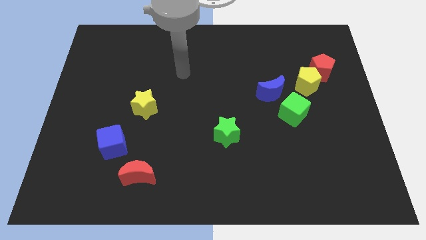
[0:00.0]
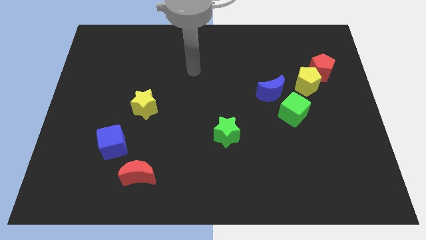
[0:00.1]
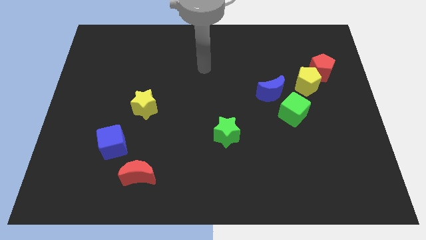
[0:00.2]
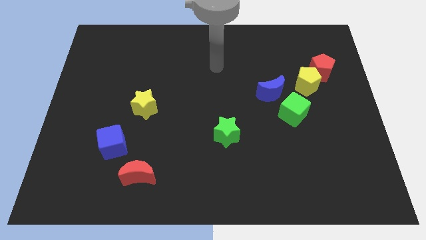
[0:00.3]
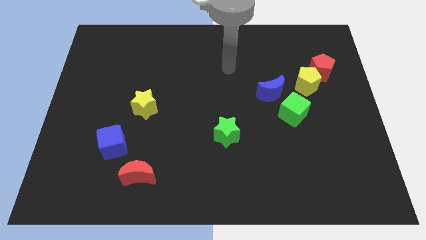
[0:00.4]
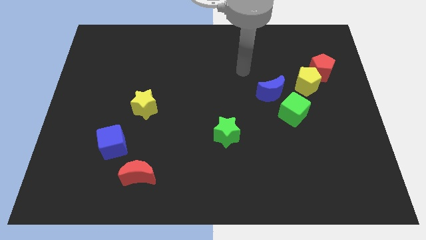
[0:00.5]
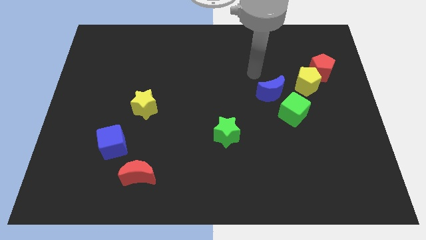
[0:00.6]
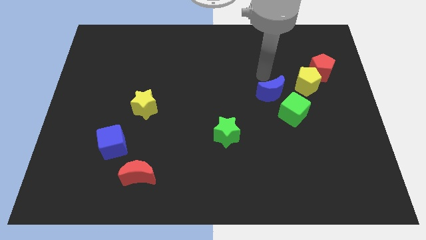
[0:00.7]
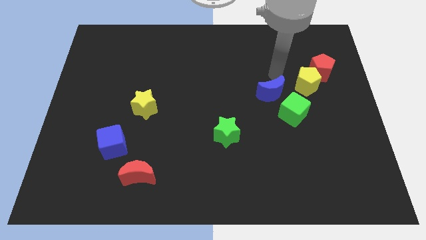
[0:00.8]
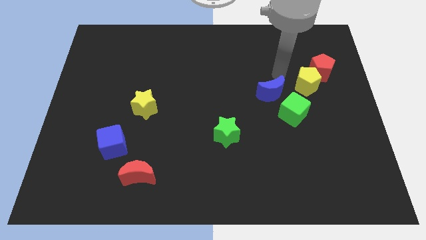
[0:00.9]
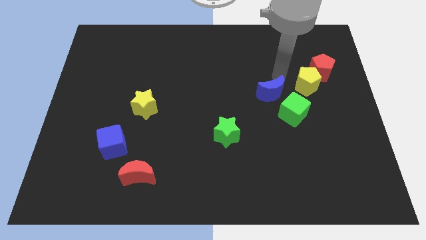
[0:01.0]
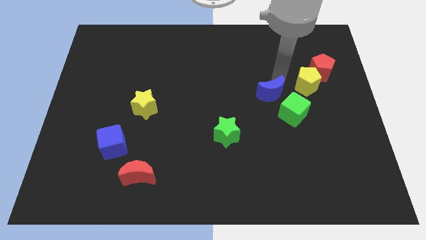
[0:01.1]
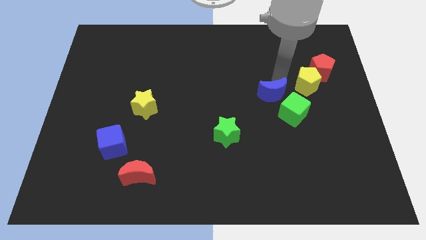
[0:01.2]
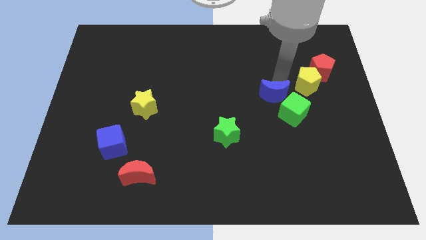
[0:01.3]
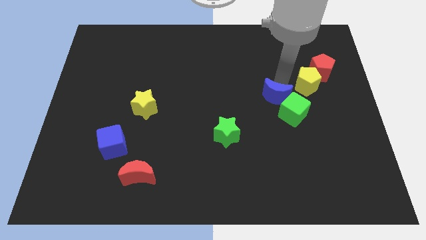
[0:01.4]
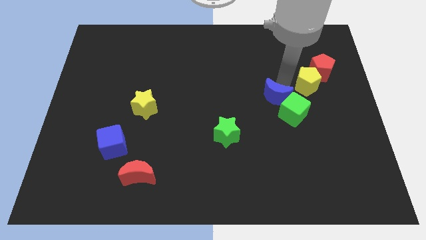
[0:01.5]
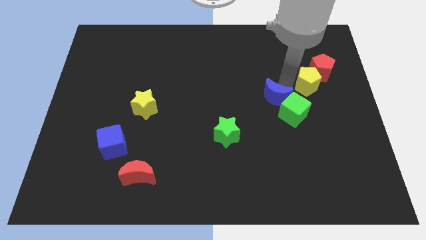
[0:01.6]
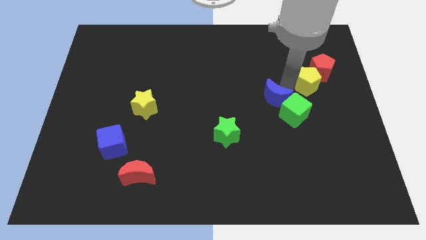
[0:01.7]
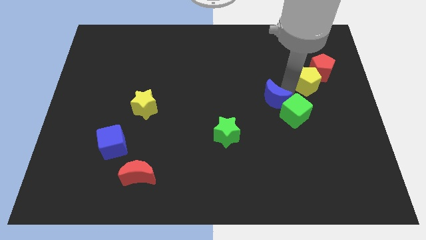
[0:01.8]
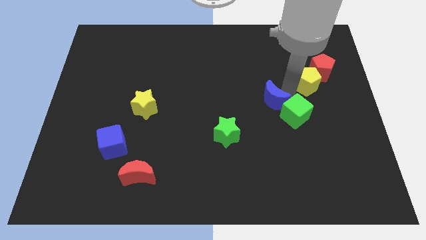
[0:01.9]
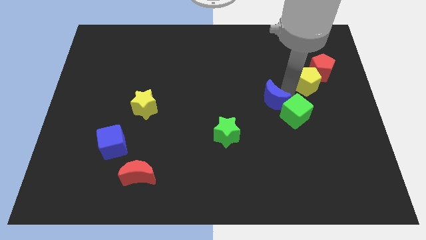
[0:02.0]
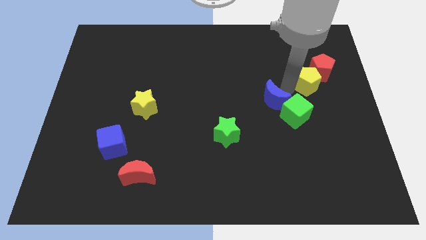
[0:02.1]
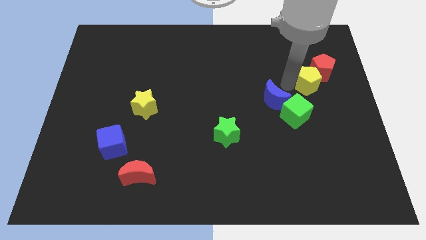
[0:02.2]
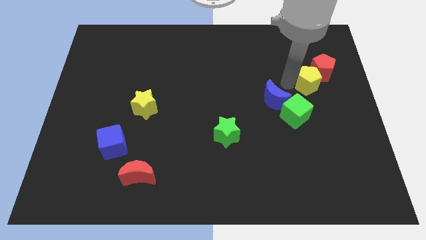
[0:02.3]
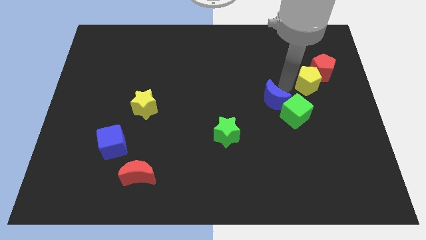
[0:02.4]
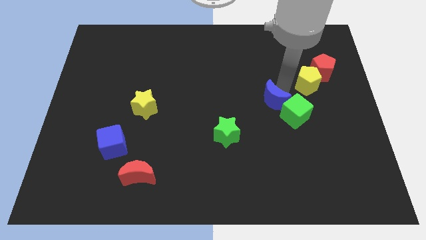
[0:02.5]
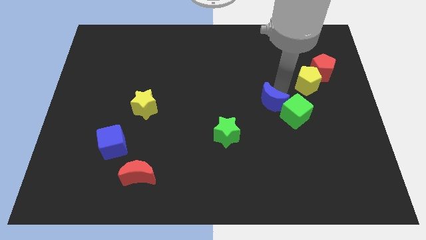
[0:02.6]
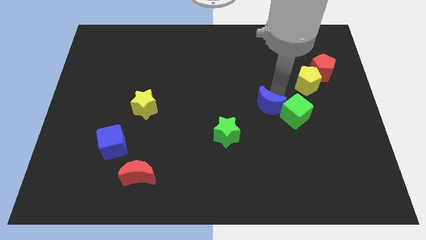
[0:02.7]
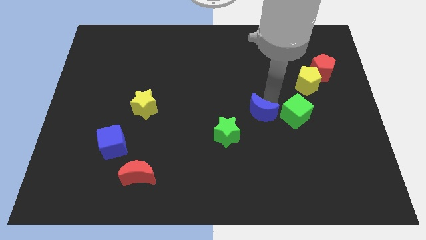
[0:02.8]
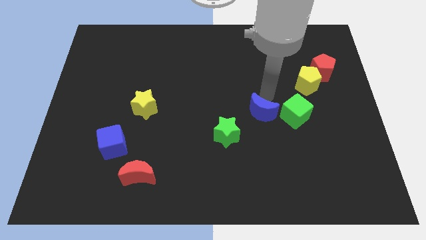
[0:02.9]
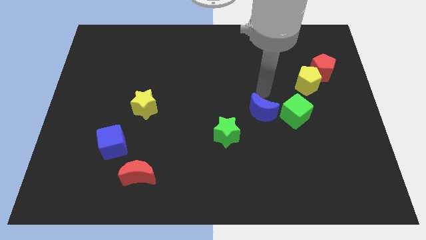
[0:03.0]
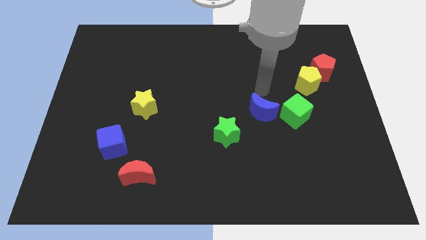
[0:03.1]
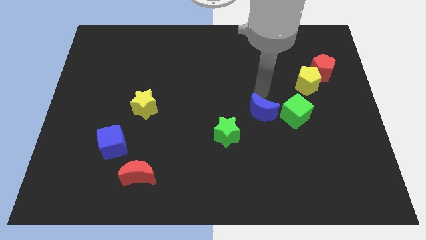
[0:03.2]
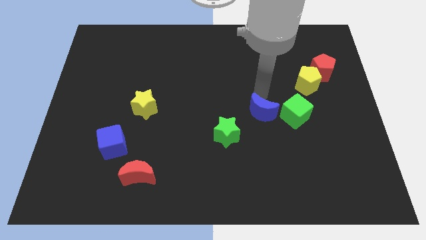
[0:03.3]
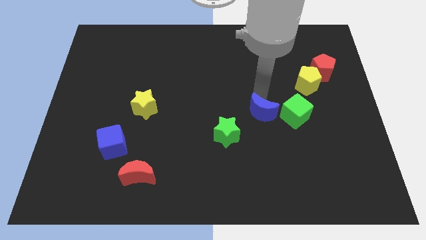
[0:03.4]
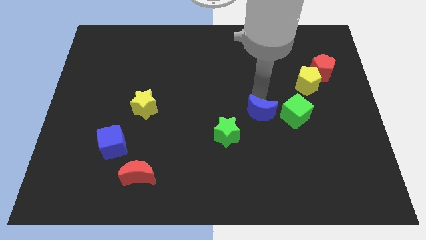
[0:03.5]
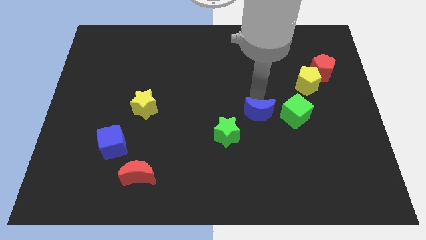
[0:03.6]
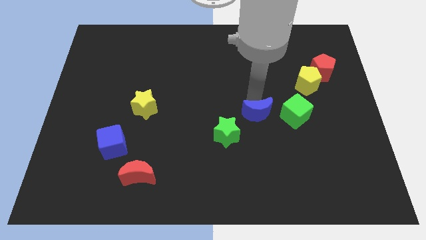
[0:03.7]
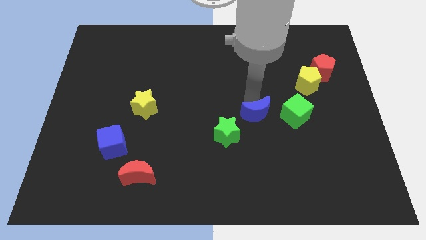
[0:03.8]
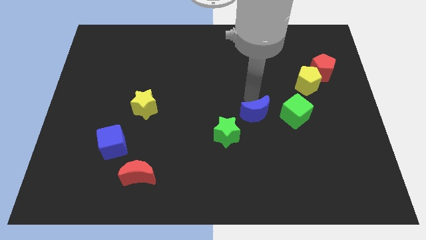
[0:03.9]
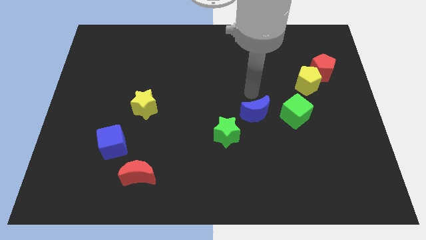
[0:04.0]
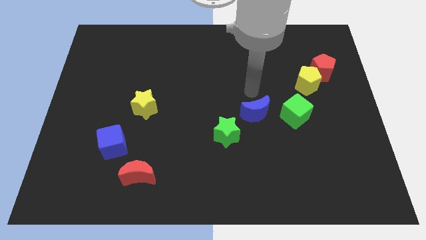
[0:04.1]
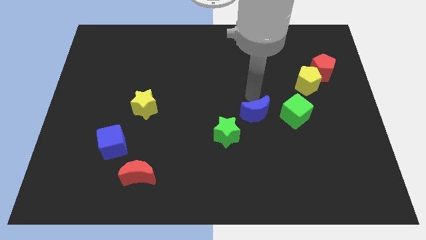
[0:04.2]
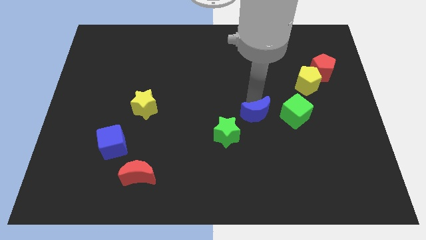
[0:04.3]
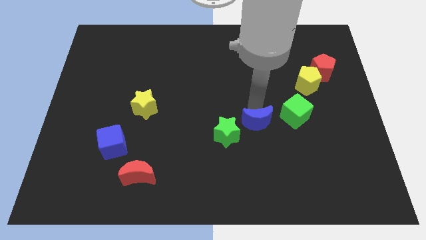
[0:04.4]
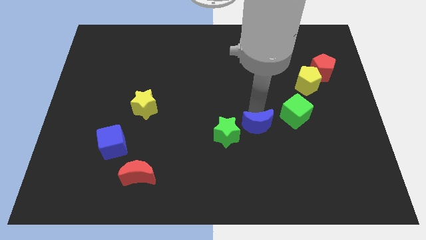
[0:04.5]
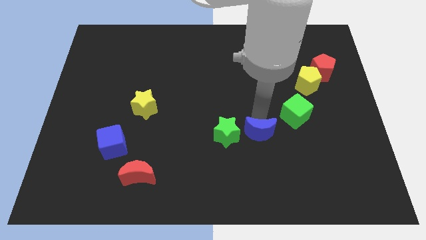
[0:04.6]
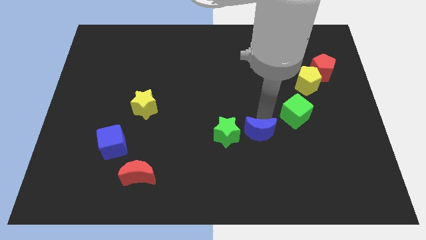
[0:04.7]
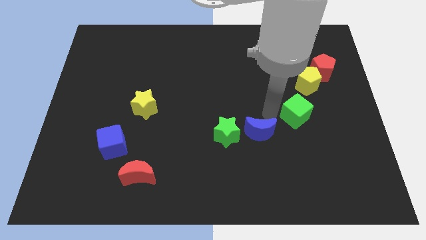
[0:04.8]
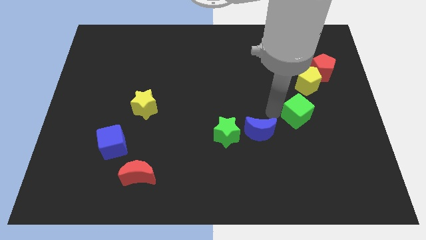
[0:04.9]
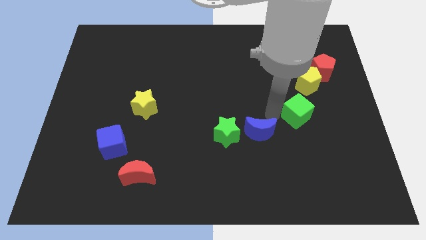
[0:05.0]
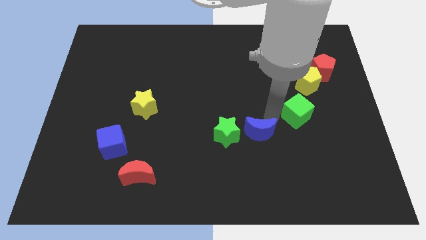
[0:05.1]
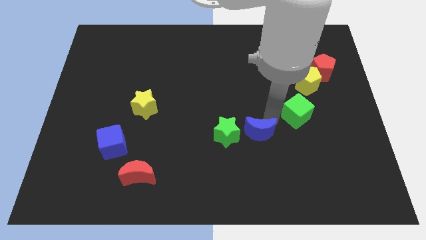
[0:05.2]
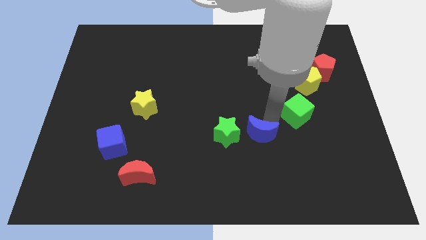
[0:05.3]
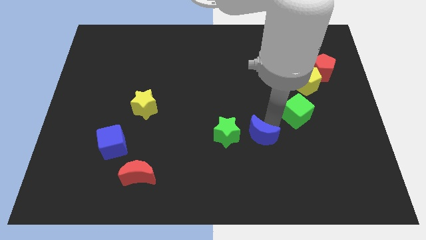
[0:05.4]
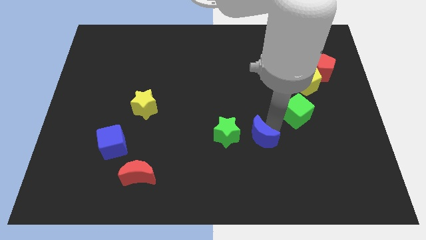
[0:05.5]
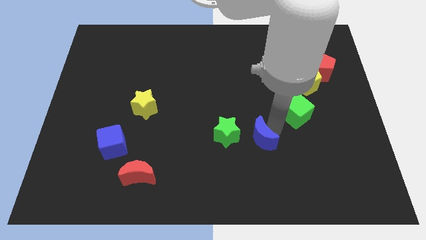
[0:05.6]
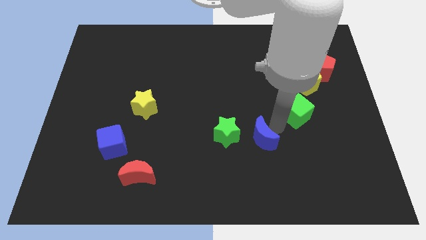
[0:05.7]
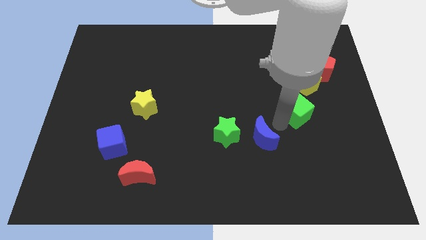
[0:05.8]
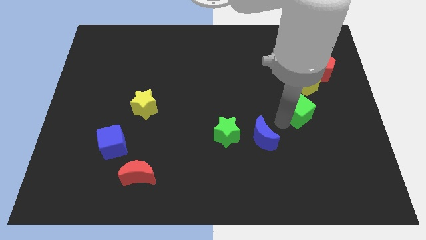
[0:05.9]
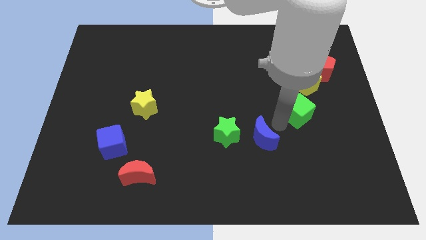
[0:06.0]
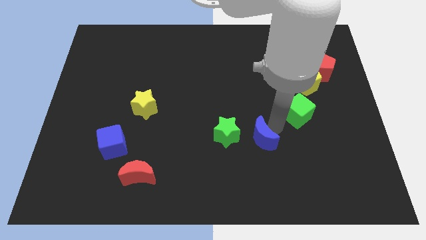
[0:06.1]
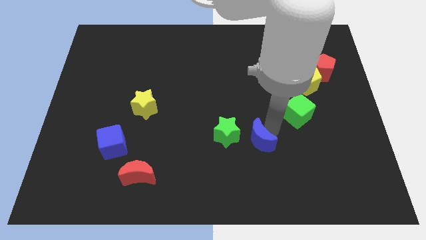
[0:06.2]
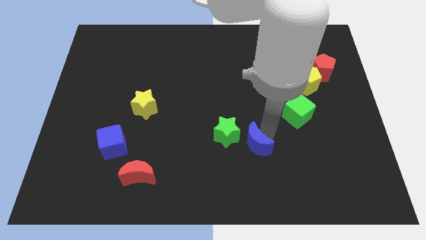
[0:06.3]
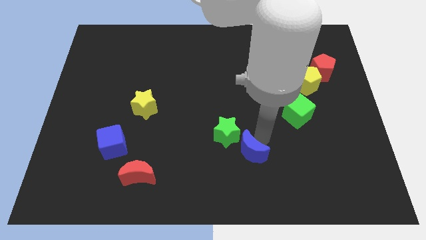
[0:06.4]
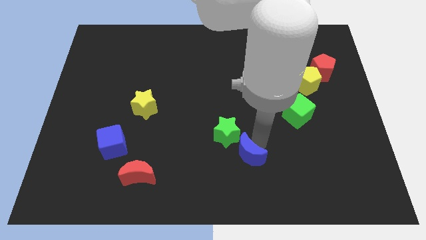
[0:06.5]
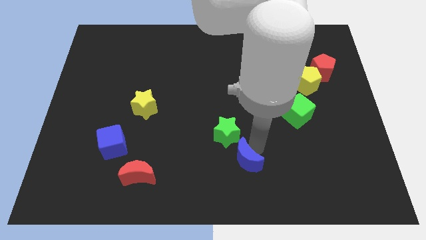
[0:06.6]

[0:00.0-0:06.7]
push the blue moon to the bottom side
